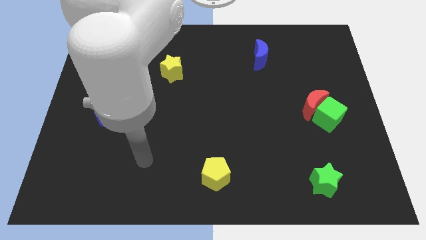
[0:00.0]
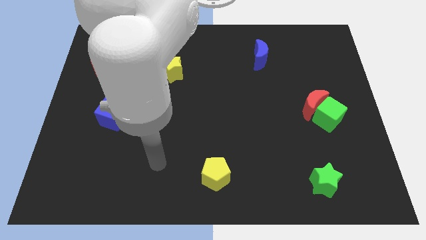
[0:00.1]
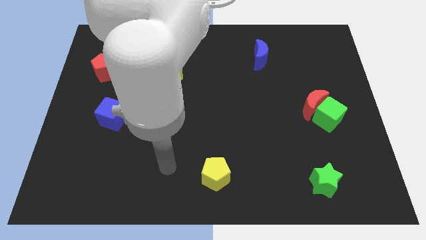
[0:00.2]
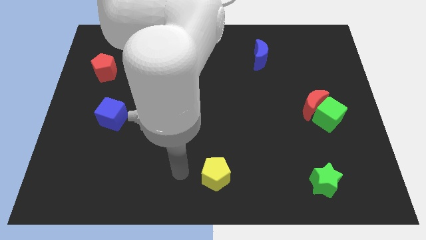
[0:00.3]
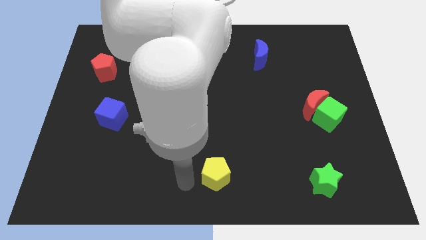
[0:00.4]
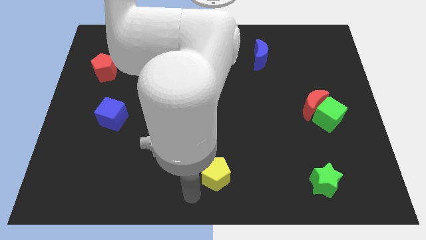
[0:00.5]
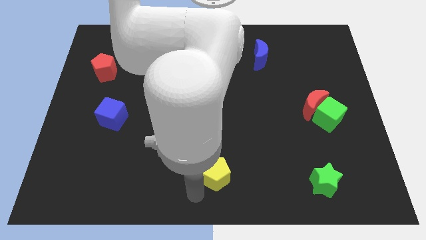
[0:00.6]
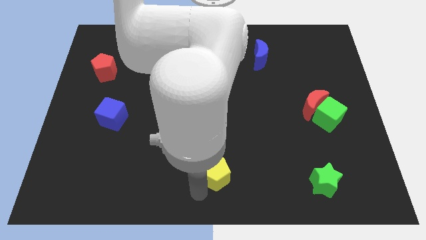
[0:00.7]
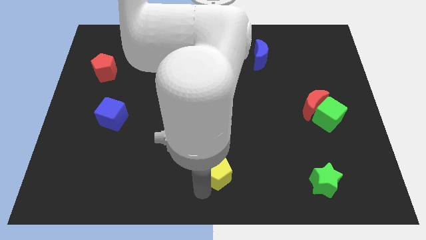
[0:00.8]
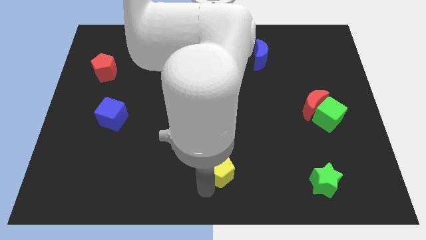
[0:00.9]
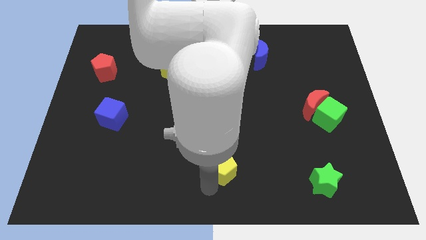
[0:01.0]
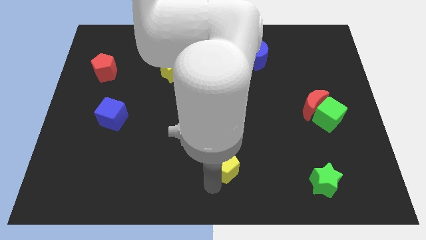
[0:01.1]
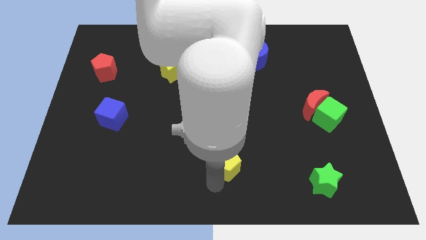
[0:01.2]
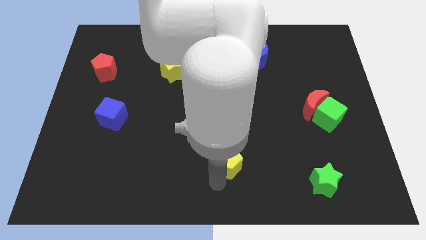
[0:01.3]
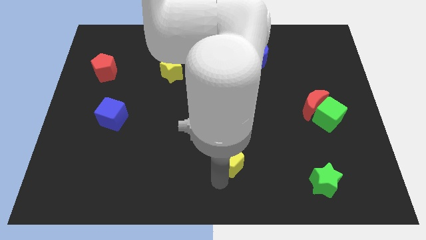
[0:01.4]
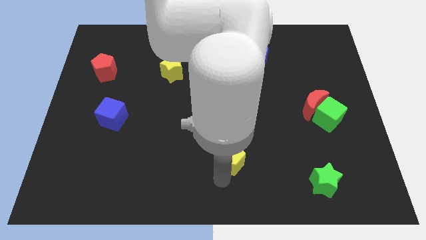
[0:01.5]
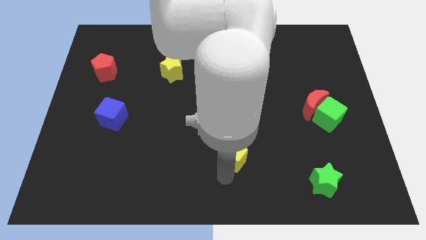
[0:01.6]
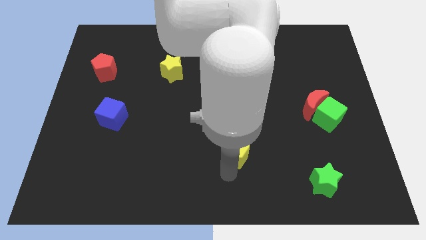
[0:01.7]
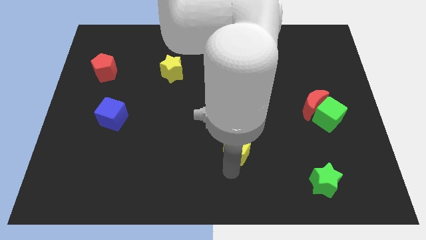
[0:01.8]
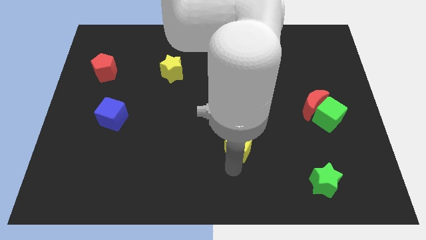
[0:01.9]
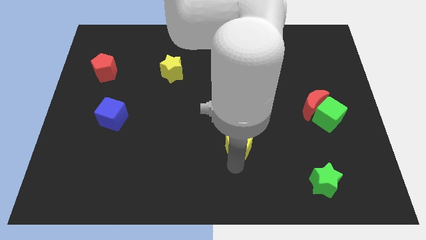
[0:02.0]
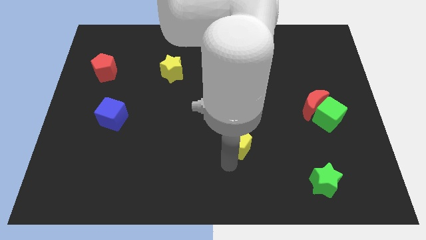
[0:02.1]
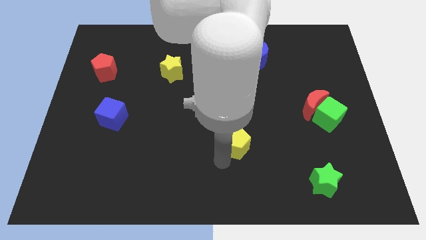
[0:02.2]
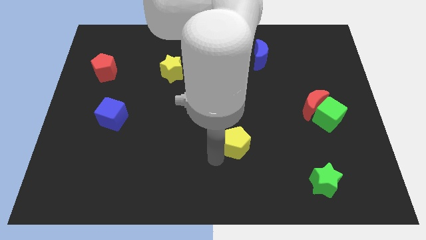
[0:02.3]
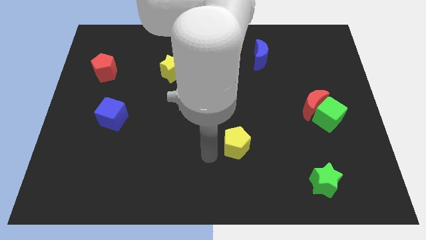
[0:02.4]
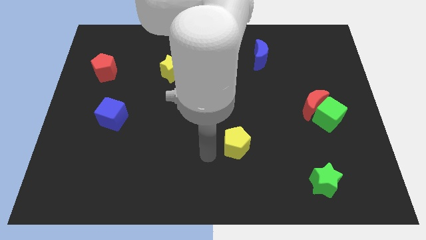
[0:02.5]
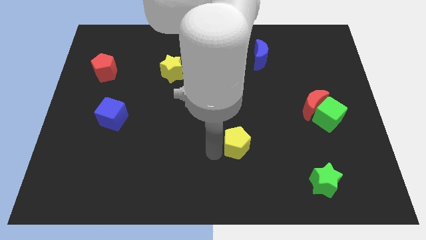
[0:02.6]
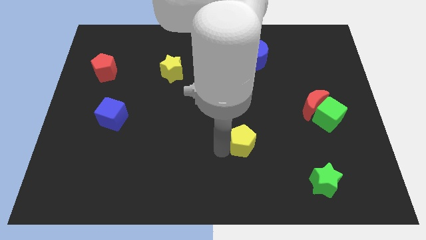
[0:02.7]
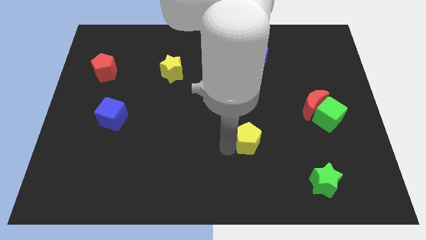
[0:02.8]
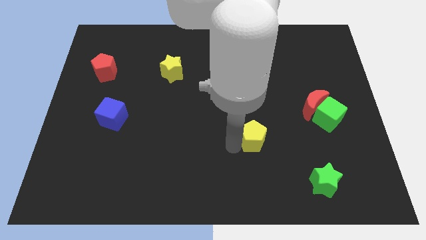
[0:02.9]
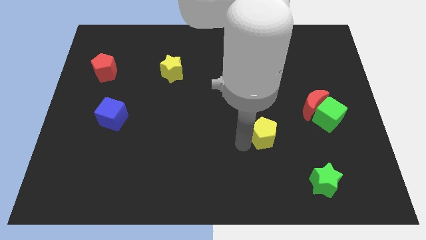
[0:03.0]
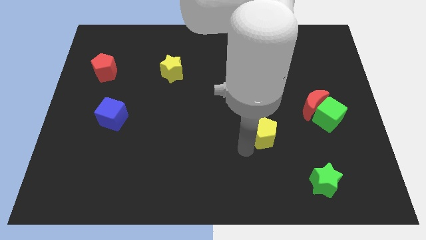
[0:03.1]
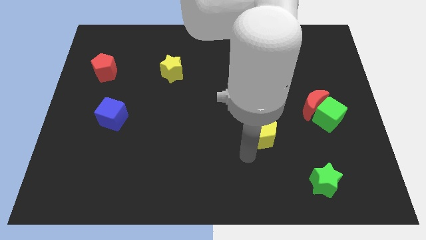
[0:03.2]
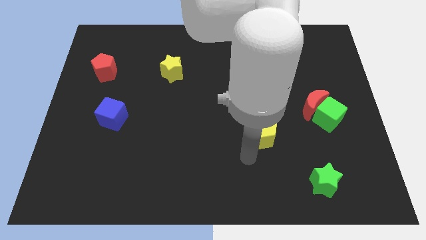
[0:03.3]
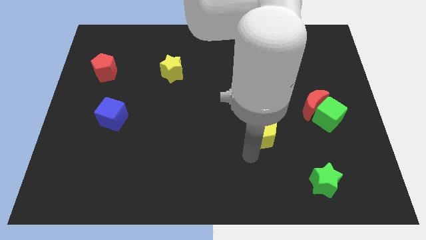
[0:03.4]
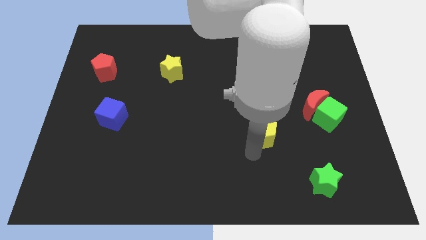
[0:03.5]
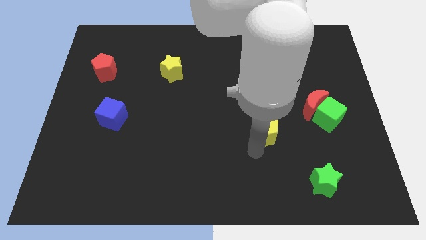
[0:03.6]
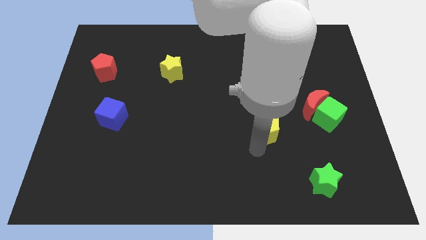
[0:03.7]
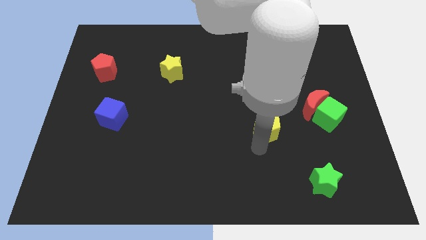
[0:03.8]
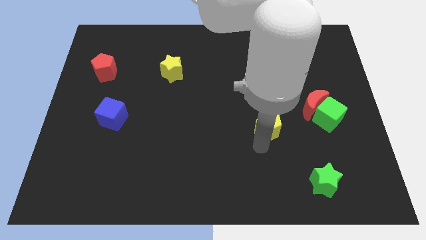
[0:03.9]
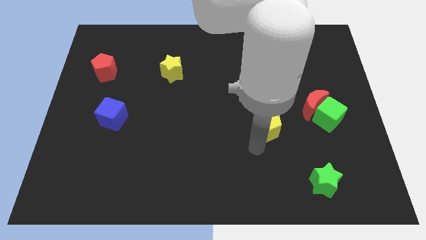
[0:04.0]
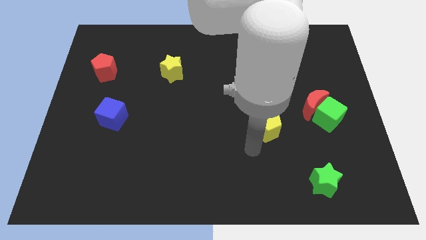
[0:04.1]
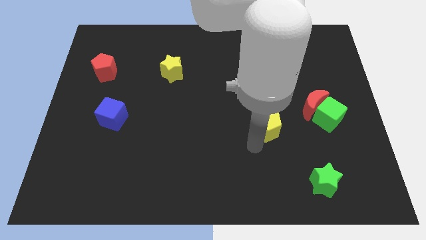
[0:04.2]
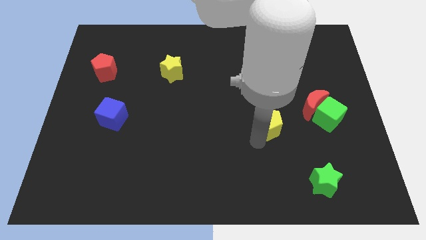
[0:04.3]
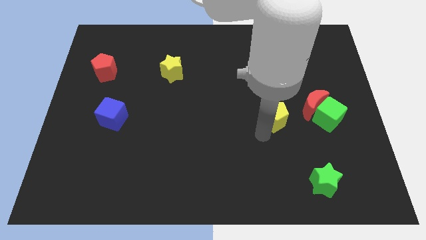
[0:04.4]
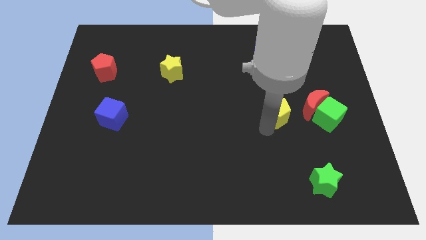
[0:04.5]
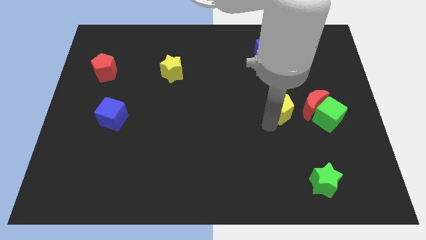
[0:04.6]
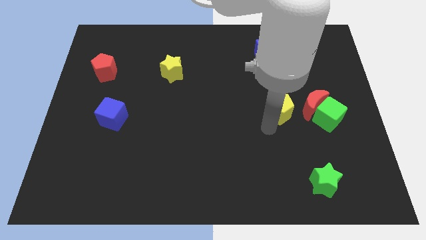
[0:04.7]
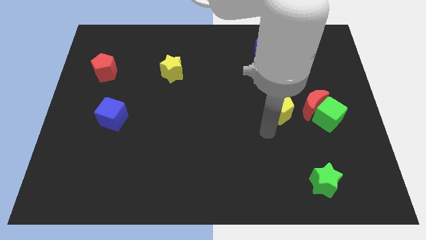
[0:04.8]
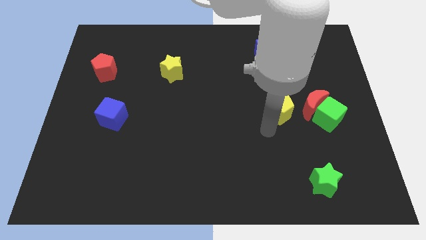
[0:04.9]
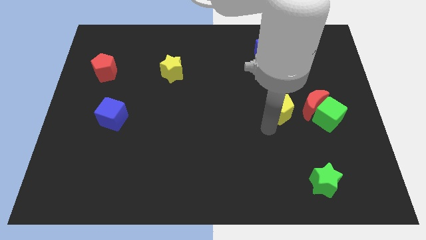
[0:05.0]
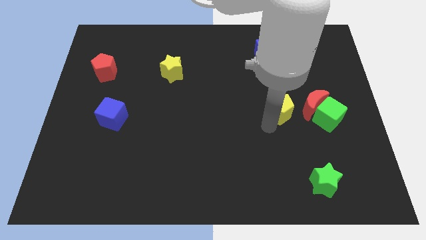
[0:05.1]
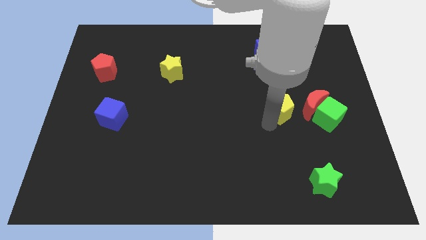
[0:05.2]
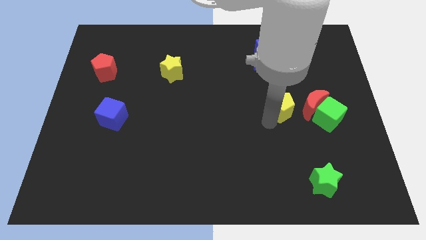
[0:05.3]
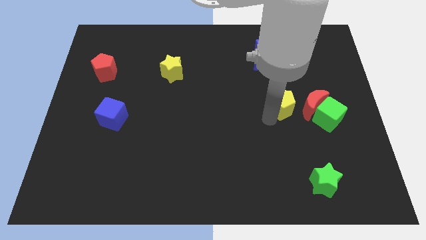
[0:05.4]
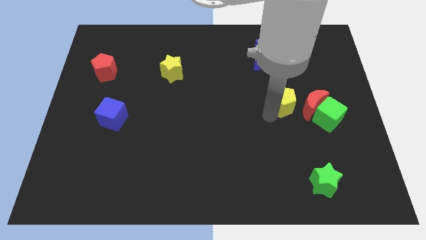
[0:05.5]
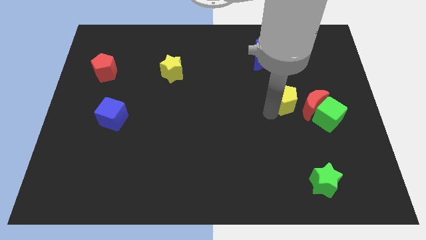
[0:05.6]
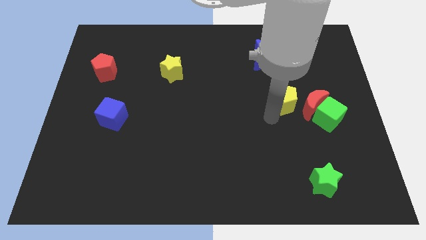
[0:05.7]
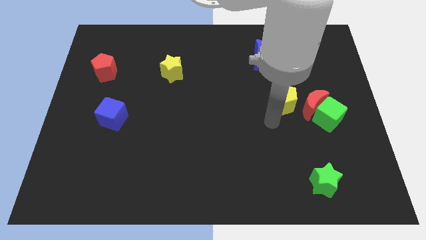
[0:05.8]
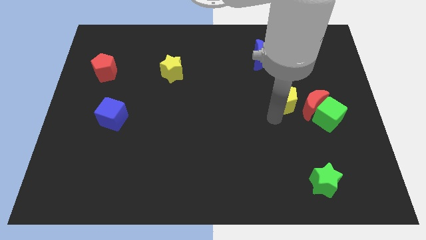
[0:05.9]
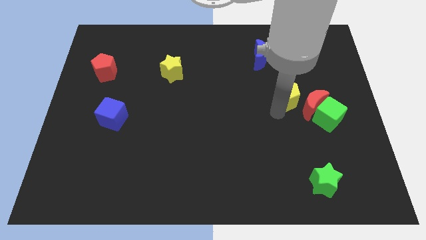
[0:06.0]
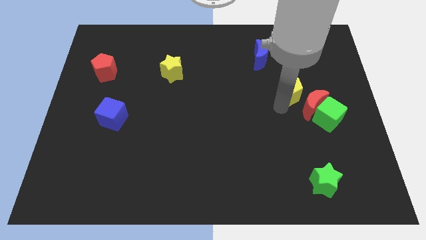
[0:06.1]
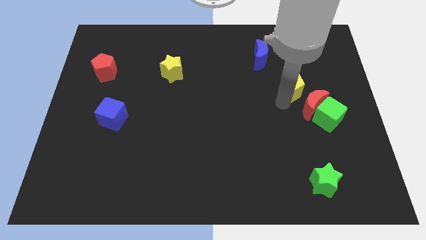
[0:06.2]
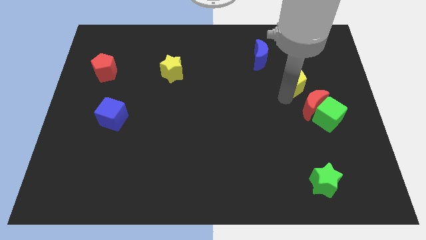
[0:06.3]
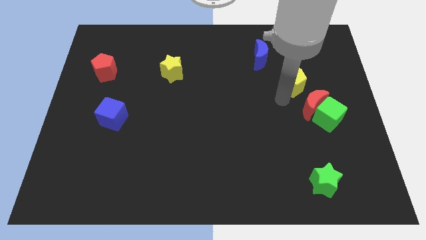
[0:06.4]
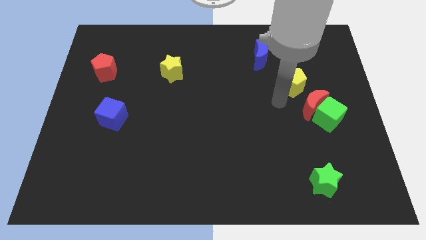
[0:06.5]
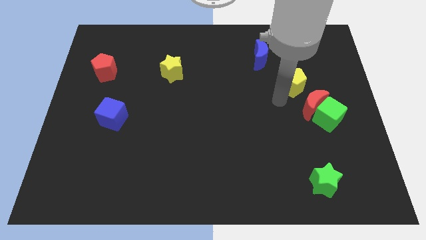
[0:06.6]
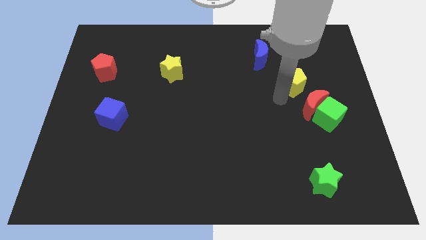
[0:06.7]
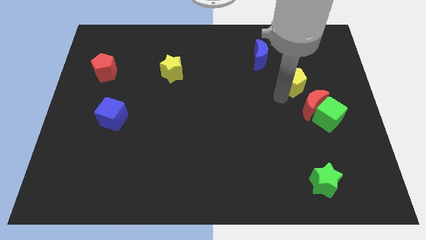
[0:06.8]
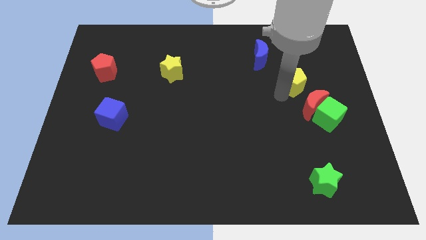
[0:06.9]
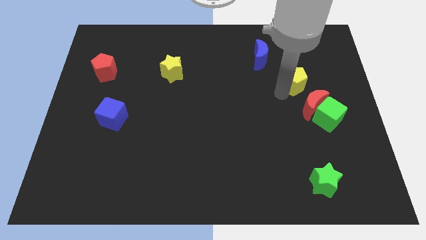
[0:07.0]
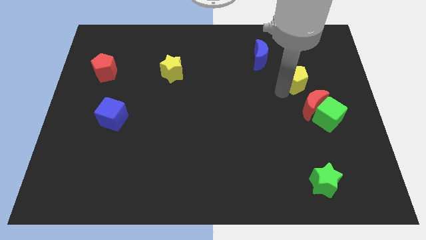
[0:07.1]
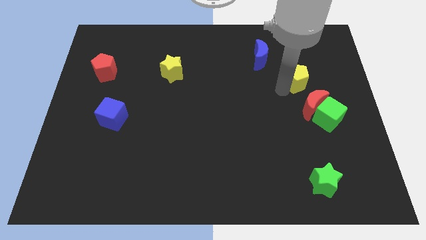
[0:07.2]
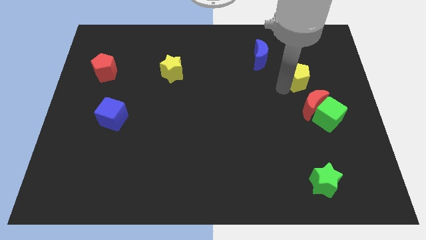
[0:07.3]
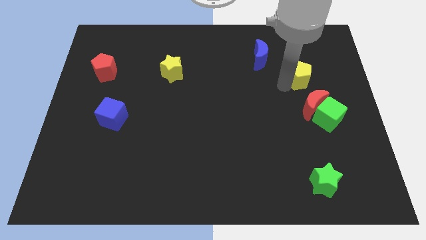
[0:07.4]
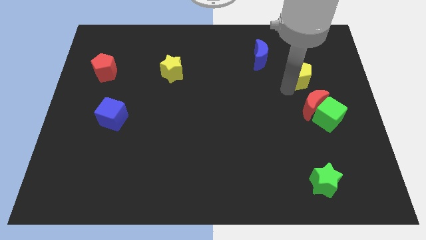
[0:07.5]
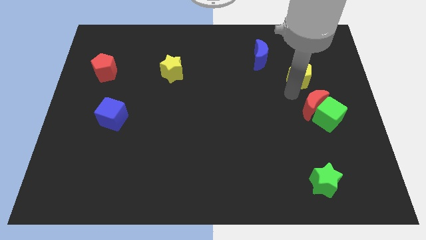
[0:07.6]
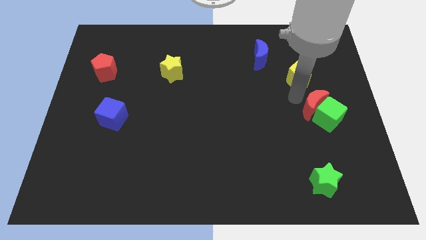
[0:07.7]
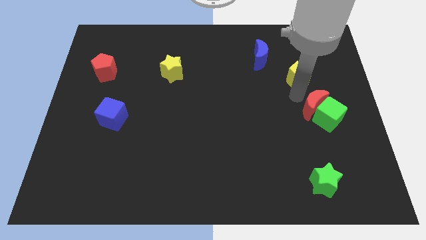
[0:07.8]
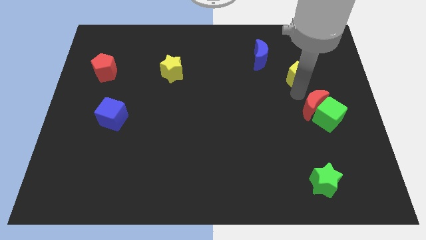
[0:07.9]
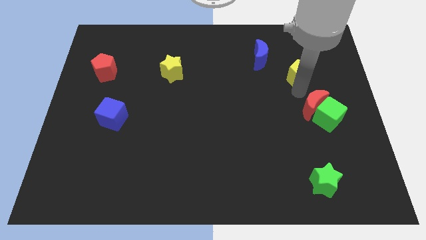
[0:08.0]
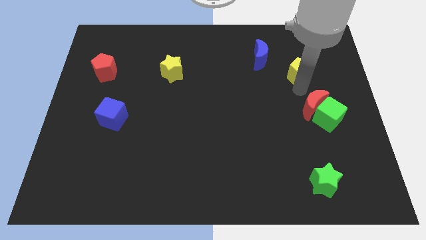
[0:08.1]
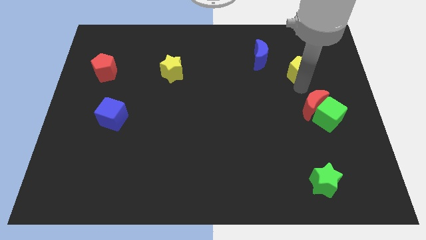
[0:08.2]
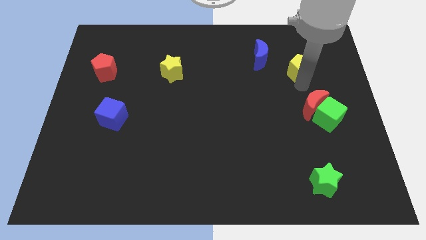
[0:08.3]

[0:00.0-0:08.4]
slide the yellow pentagon right of the blue moon

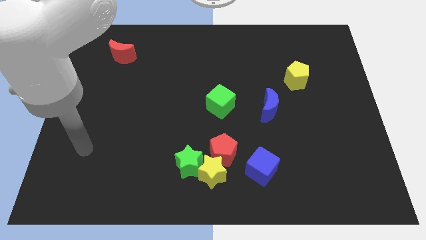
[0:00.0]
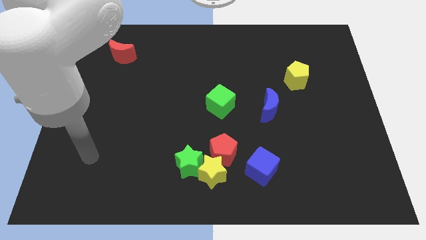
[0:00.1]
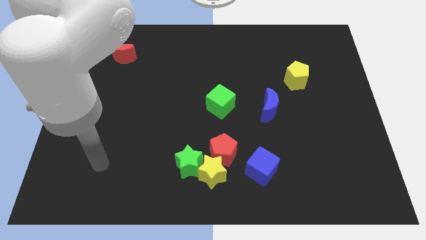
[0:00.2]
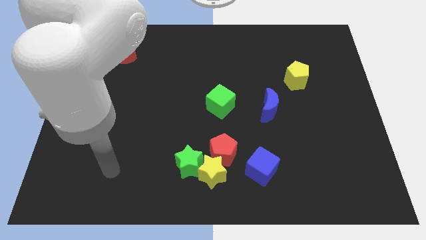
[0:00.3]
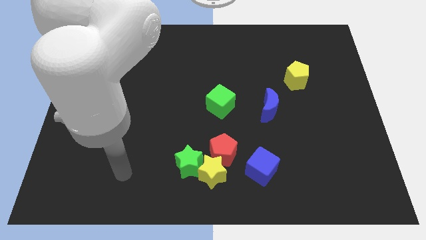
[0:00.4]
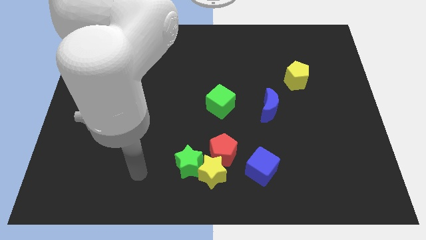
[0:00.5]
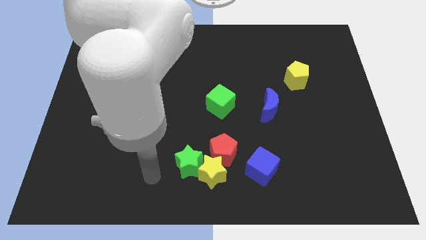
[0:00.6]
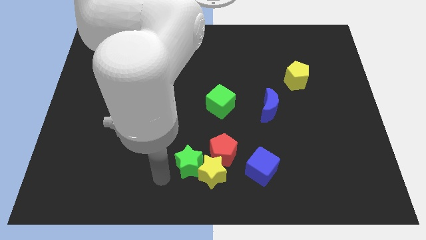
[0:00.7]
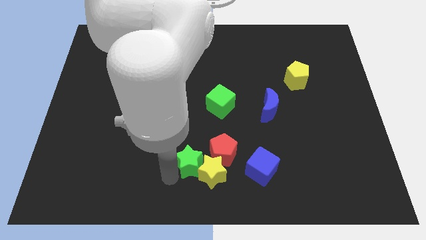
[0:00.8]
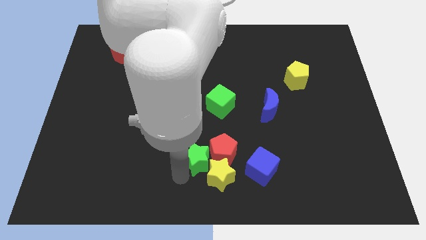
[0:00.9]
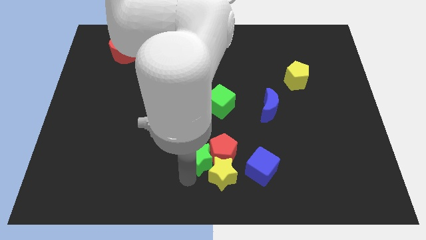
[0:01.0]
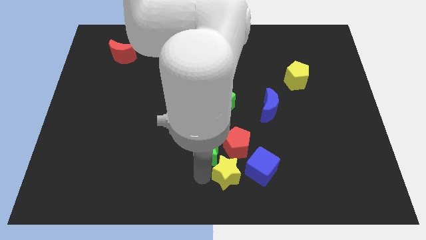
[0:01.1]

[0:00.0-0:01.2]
push the red pentagon to the bottom left of the blue moon
